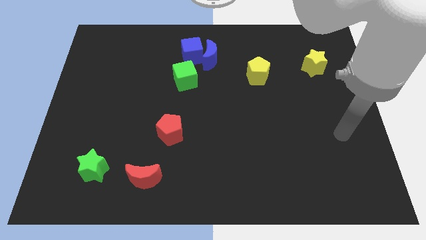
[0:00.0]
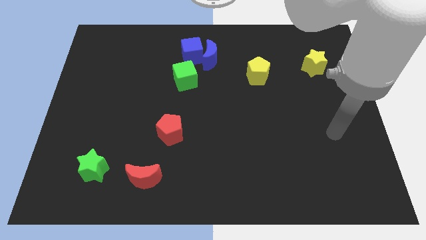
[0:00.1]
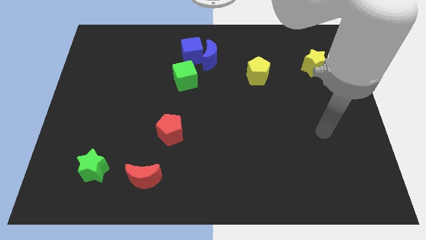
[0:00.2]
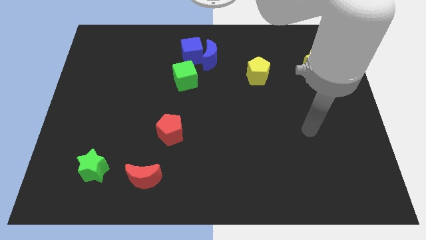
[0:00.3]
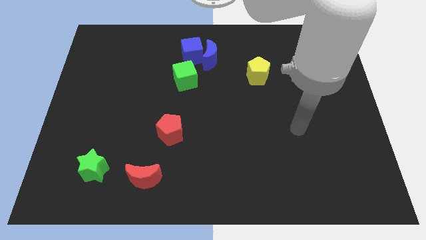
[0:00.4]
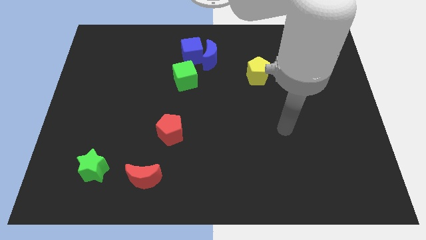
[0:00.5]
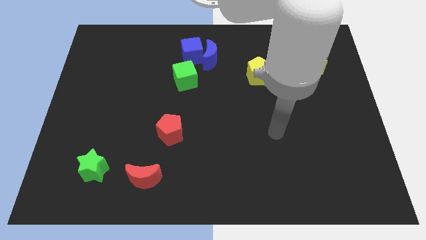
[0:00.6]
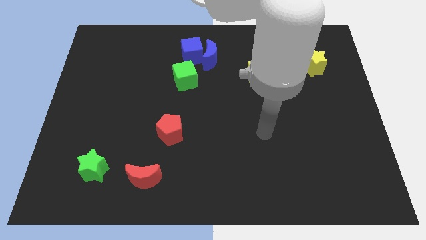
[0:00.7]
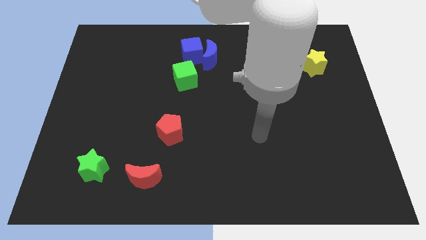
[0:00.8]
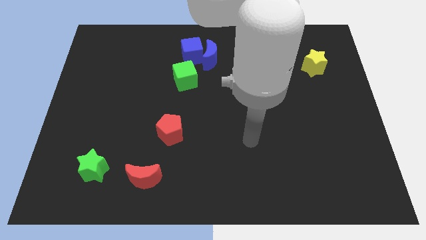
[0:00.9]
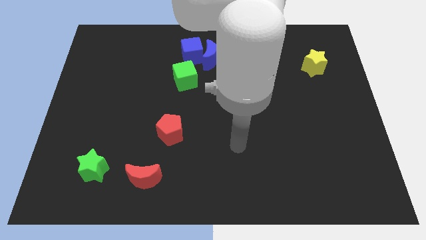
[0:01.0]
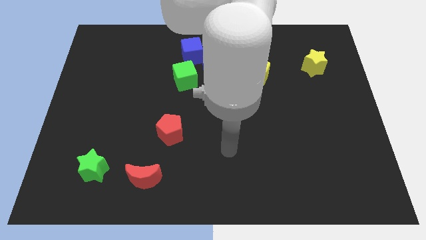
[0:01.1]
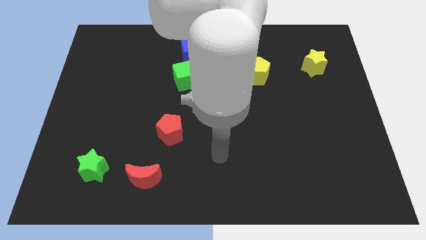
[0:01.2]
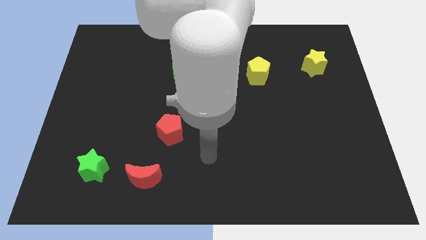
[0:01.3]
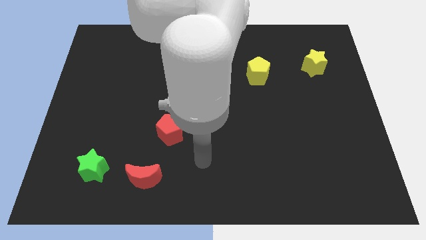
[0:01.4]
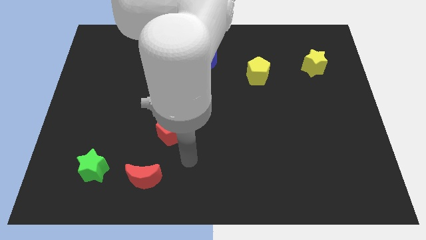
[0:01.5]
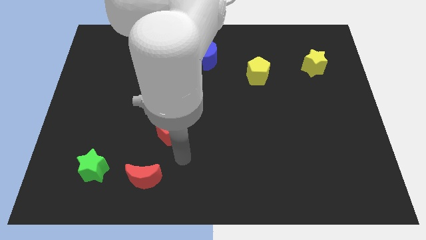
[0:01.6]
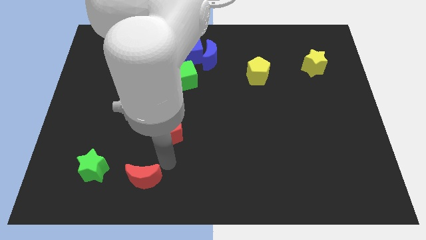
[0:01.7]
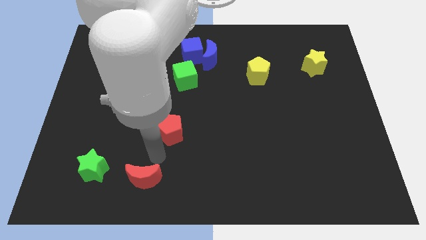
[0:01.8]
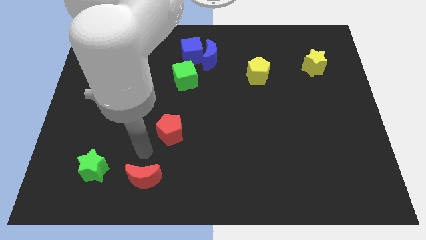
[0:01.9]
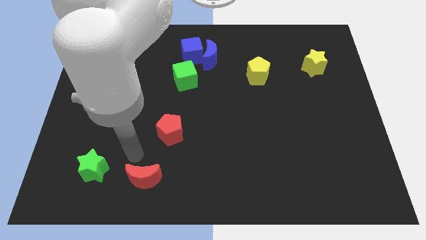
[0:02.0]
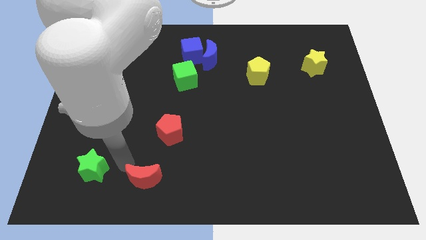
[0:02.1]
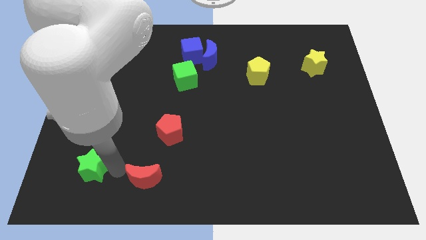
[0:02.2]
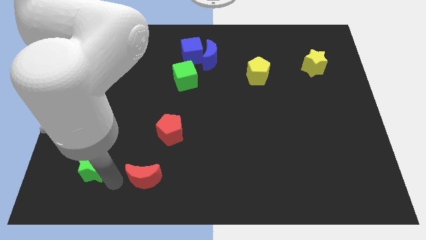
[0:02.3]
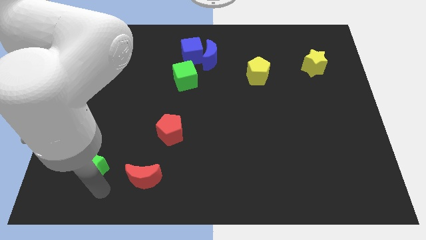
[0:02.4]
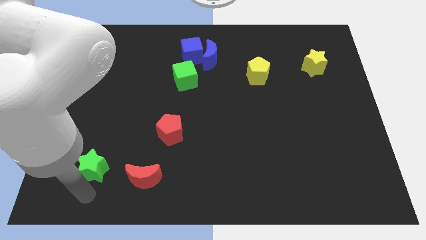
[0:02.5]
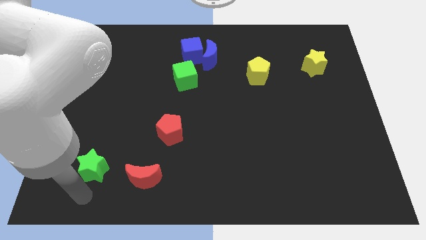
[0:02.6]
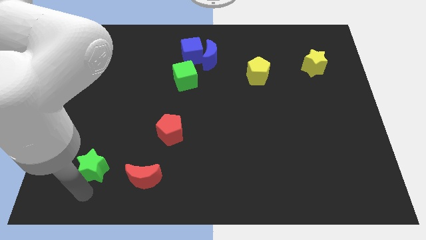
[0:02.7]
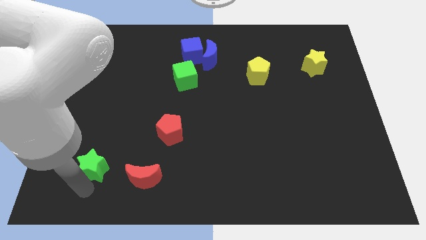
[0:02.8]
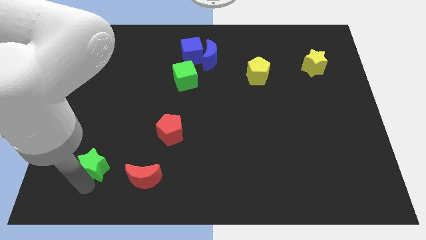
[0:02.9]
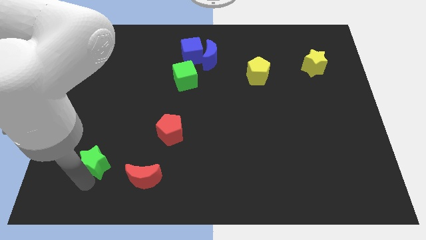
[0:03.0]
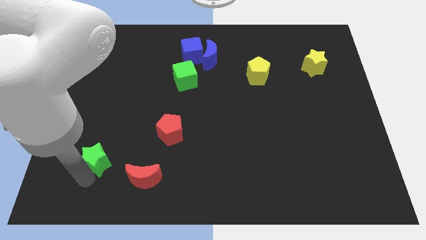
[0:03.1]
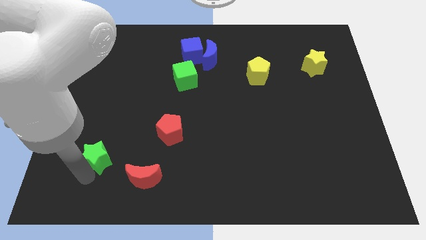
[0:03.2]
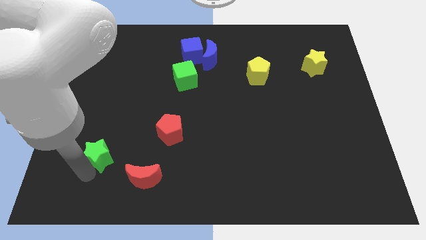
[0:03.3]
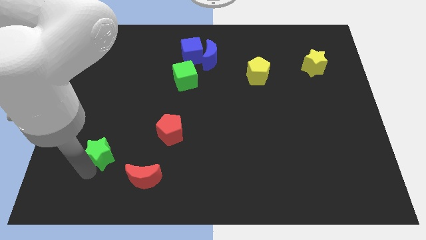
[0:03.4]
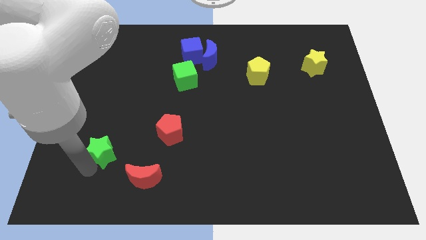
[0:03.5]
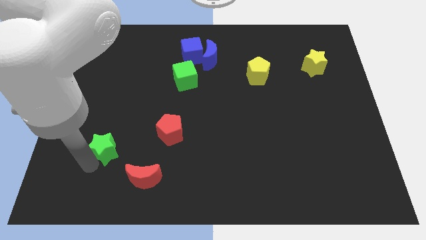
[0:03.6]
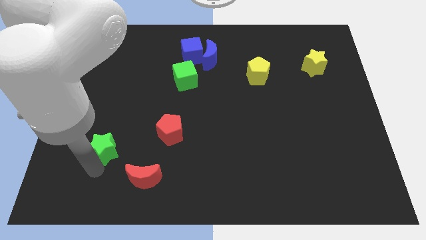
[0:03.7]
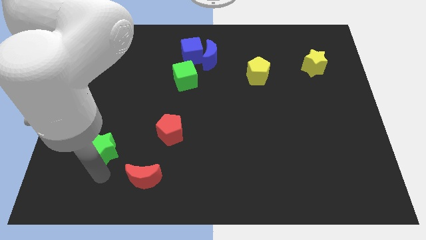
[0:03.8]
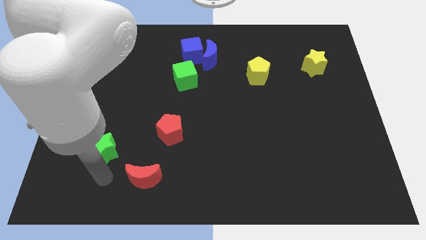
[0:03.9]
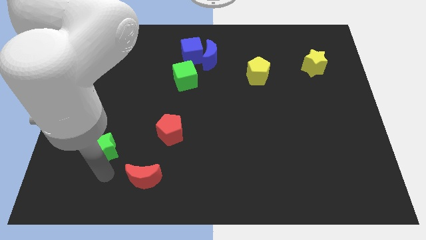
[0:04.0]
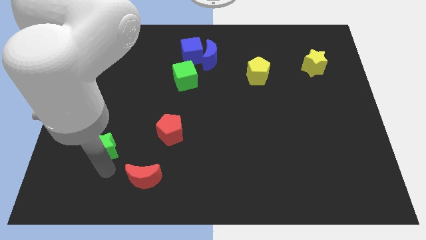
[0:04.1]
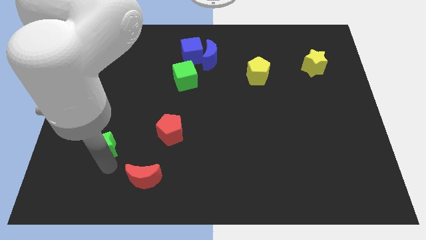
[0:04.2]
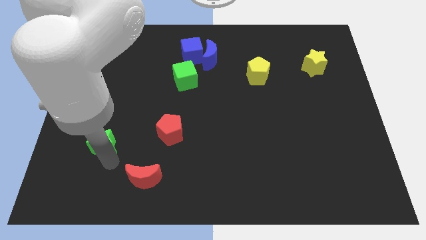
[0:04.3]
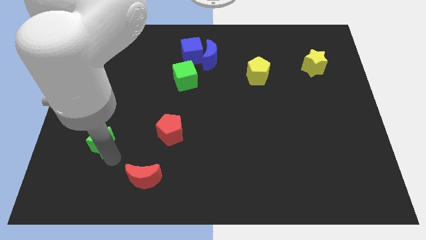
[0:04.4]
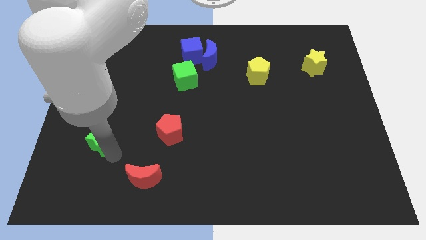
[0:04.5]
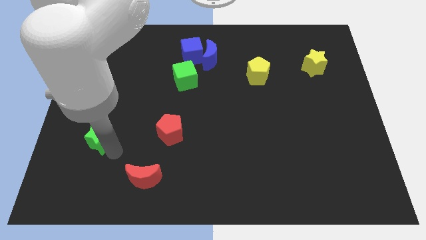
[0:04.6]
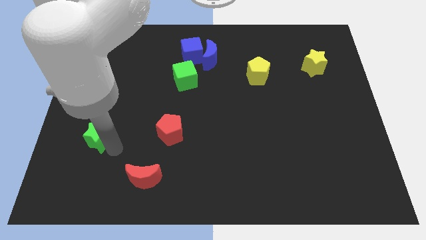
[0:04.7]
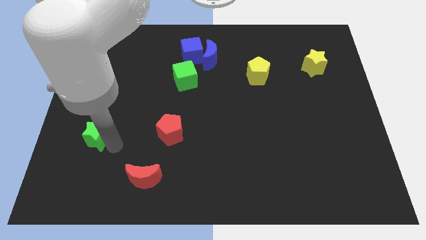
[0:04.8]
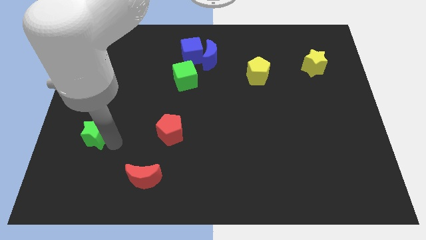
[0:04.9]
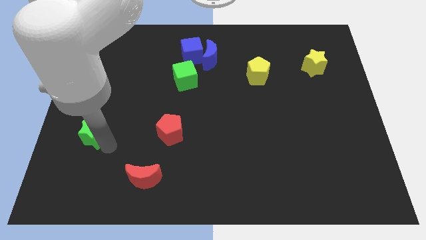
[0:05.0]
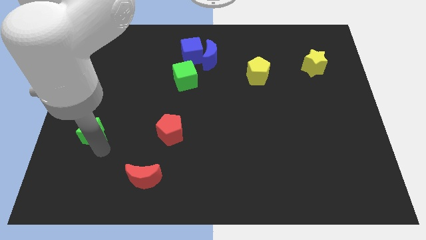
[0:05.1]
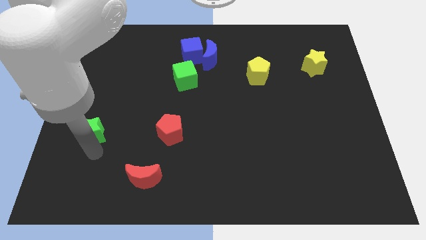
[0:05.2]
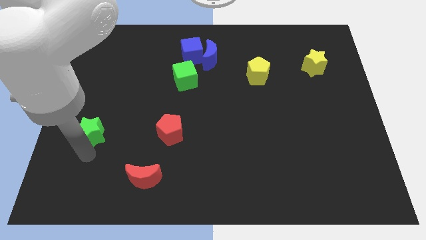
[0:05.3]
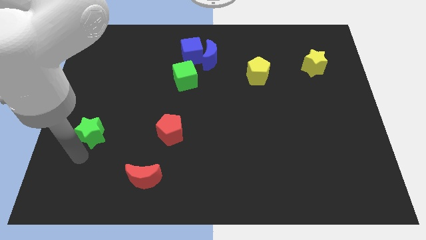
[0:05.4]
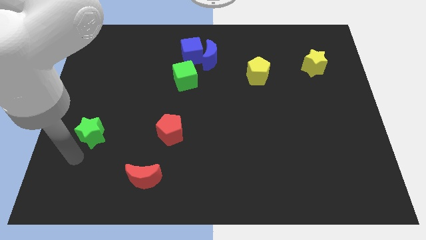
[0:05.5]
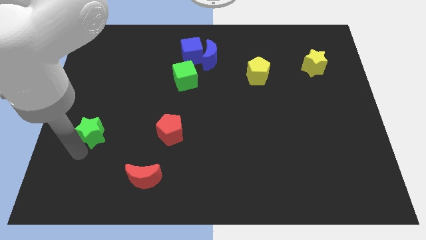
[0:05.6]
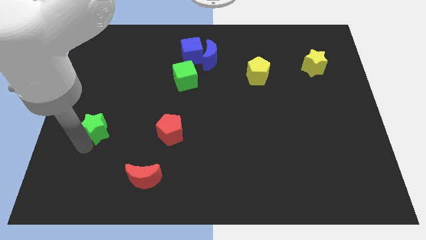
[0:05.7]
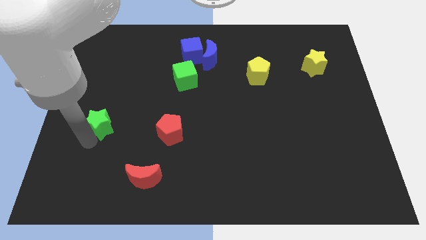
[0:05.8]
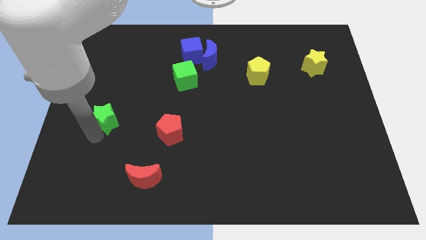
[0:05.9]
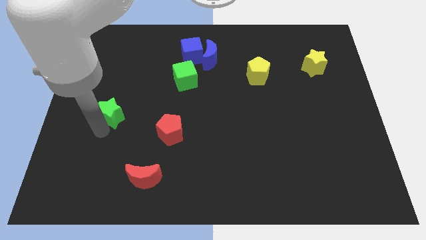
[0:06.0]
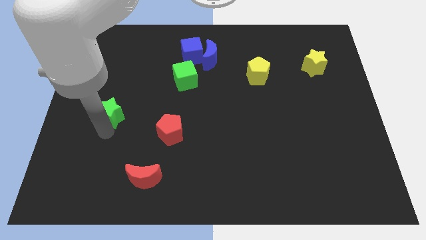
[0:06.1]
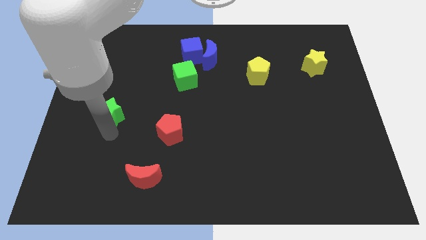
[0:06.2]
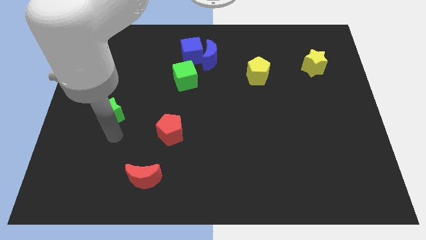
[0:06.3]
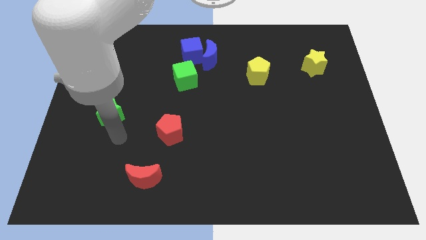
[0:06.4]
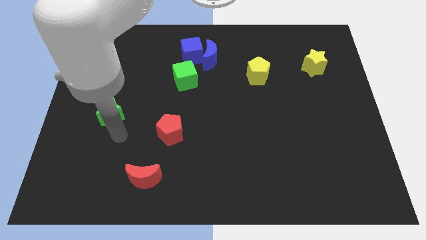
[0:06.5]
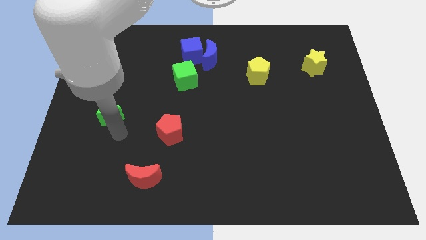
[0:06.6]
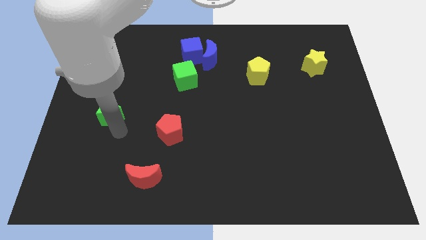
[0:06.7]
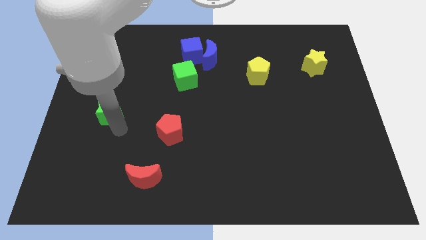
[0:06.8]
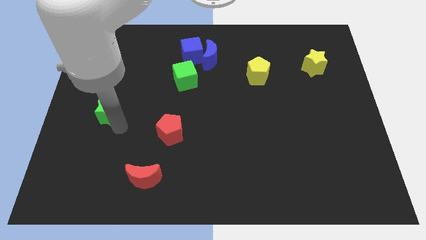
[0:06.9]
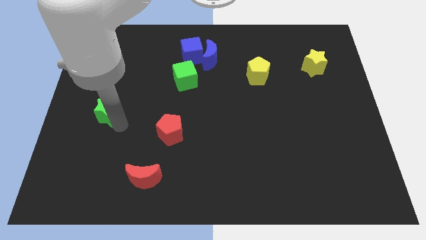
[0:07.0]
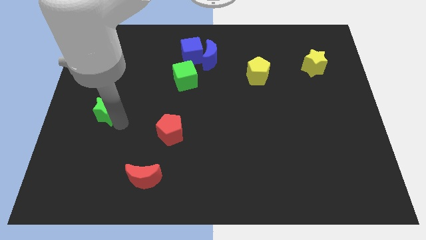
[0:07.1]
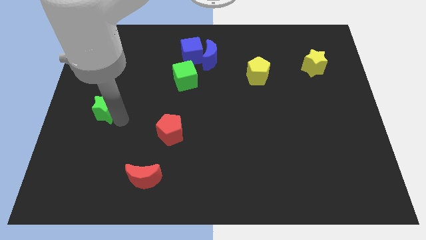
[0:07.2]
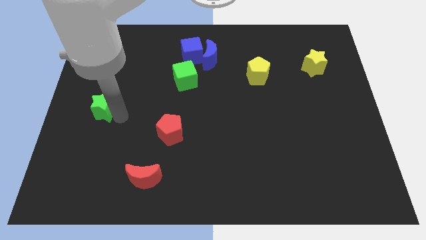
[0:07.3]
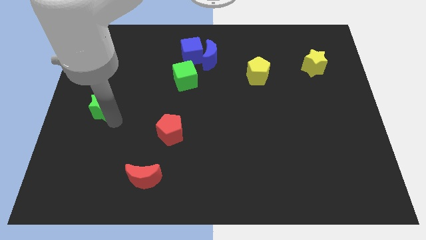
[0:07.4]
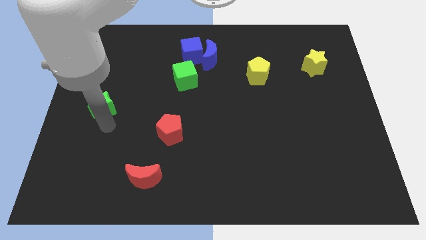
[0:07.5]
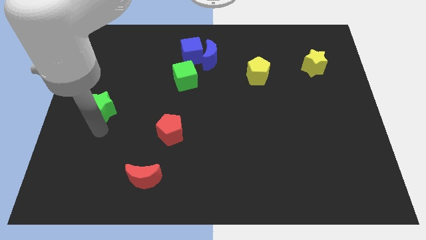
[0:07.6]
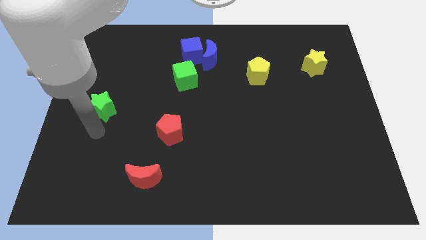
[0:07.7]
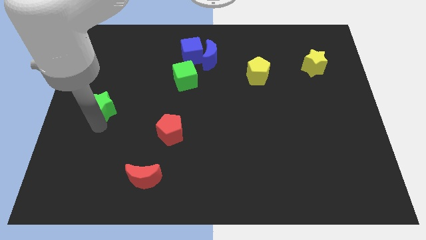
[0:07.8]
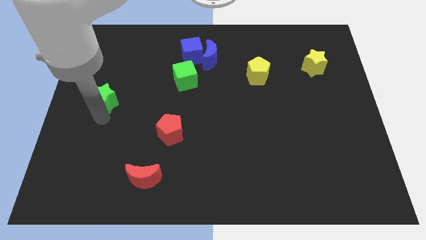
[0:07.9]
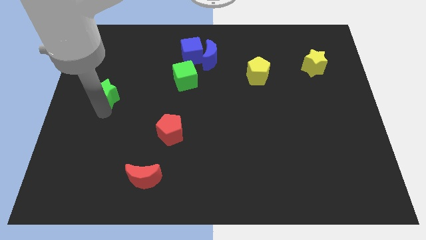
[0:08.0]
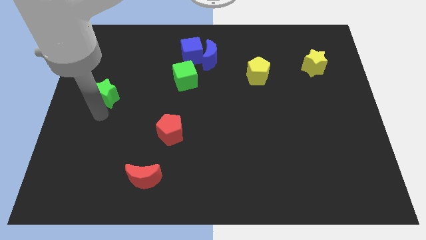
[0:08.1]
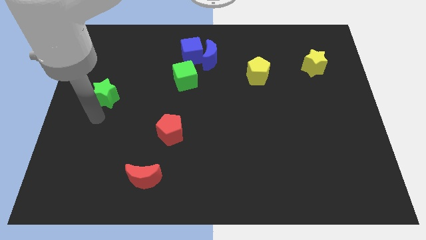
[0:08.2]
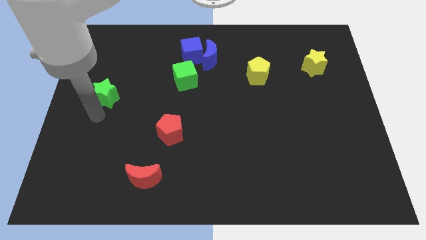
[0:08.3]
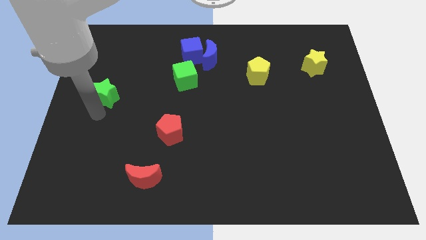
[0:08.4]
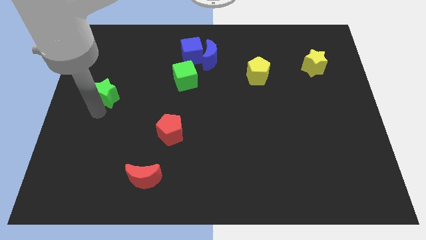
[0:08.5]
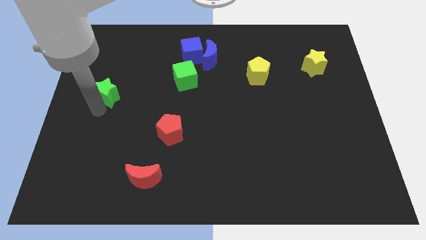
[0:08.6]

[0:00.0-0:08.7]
push the green star upwards
